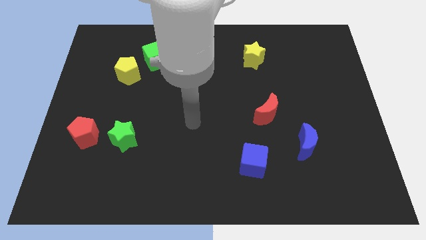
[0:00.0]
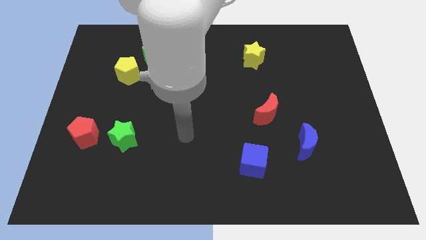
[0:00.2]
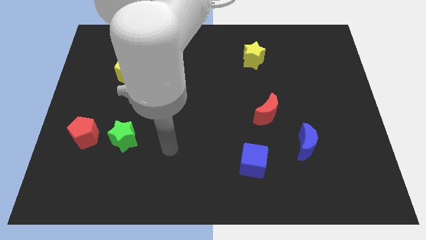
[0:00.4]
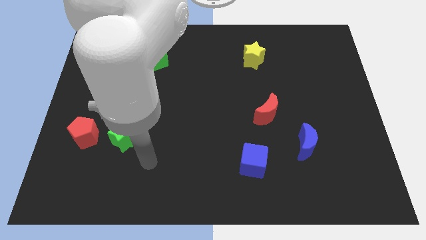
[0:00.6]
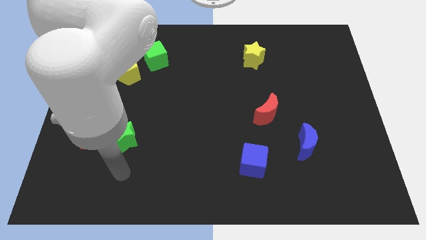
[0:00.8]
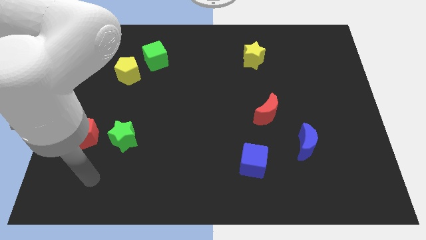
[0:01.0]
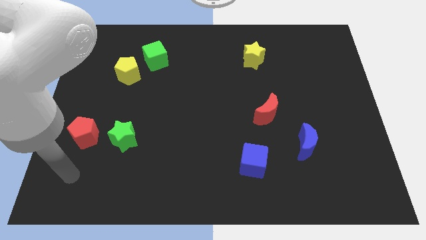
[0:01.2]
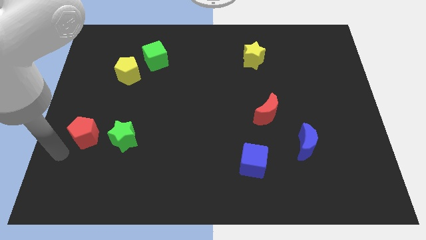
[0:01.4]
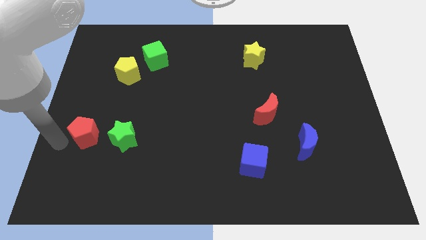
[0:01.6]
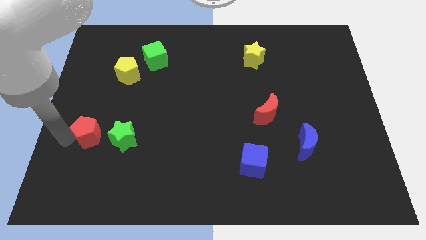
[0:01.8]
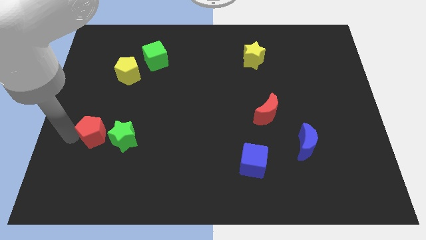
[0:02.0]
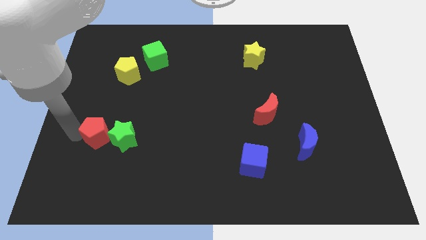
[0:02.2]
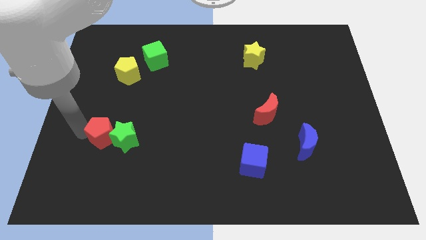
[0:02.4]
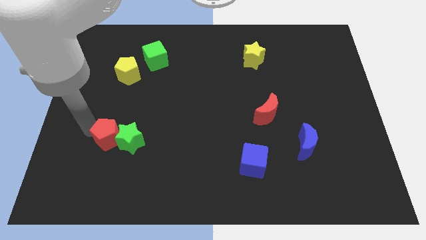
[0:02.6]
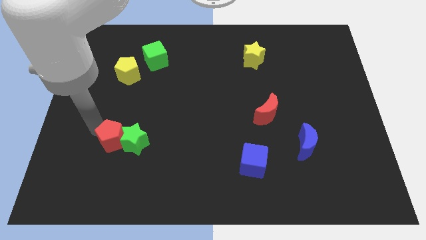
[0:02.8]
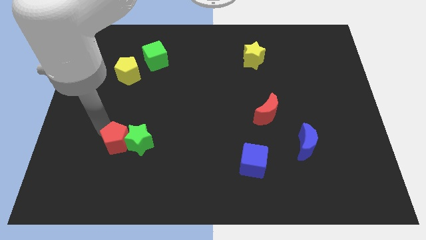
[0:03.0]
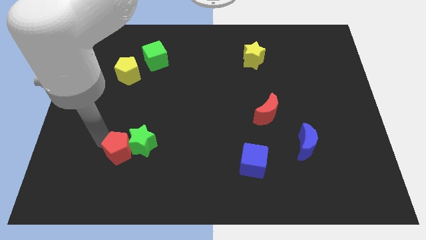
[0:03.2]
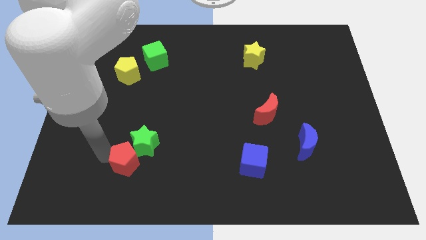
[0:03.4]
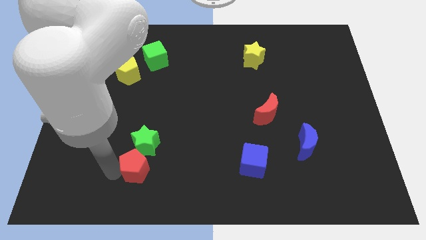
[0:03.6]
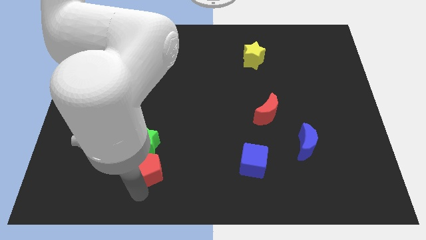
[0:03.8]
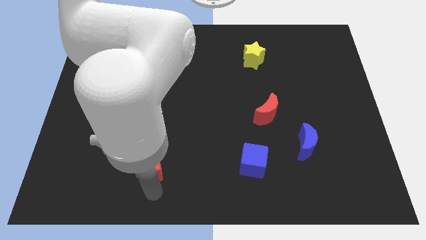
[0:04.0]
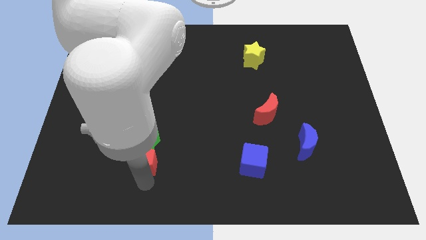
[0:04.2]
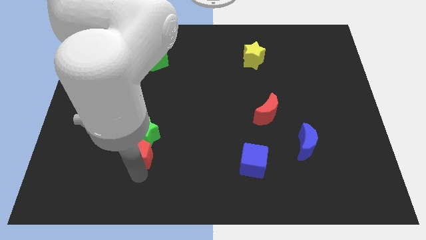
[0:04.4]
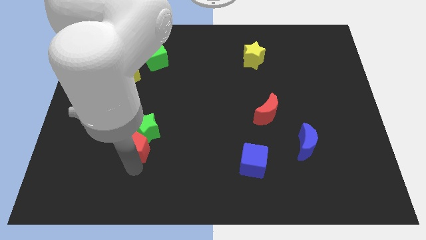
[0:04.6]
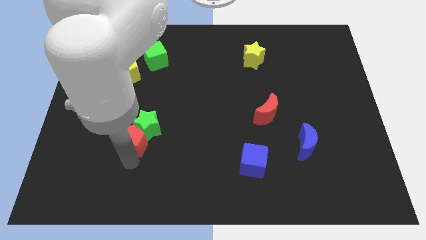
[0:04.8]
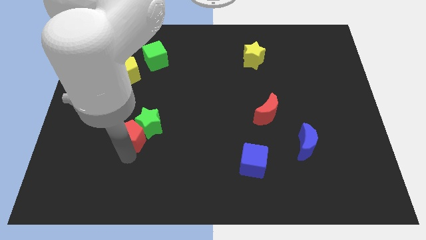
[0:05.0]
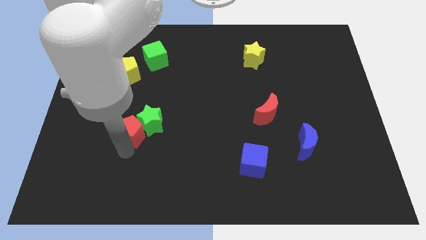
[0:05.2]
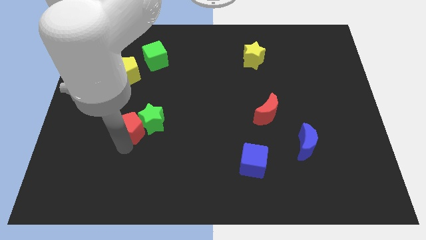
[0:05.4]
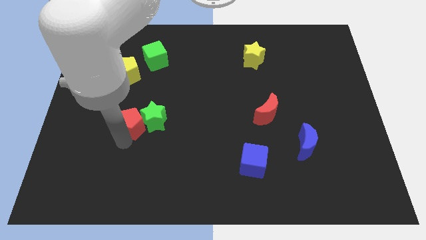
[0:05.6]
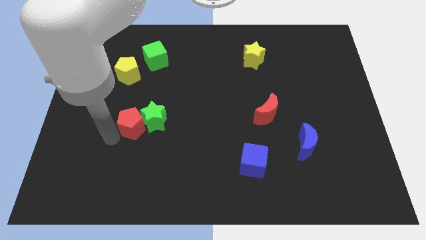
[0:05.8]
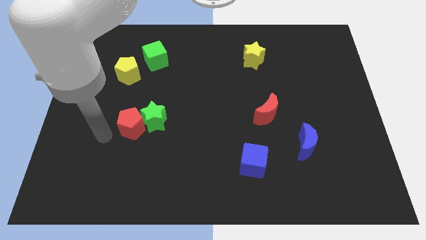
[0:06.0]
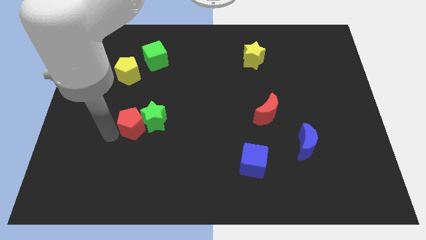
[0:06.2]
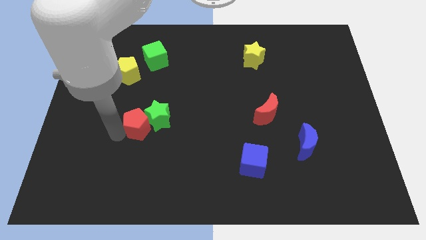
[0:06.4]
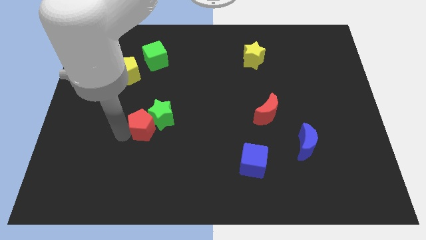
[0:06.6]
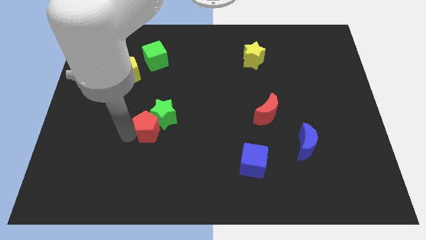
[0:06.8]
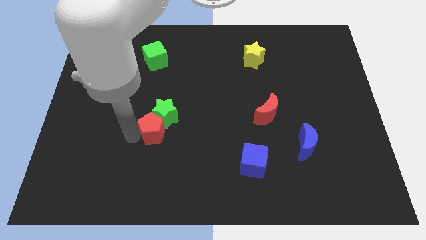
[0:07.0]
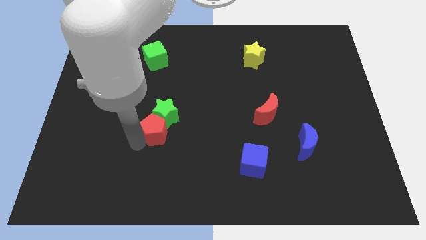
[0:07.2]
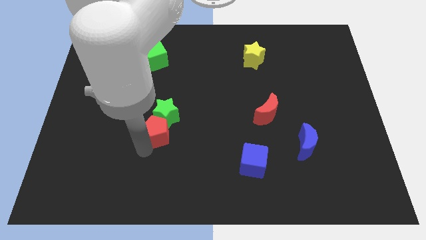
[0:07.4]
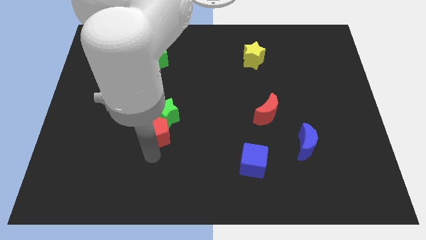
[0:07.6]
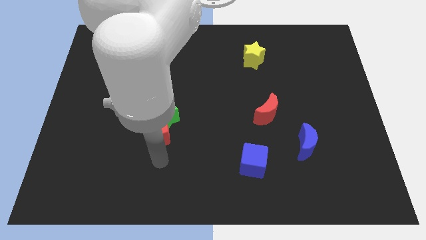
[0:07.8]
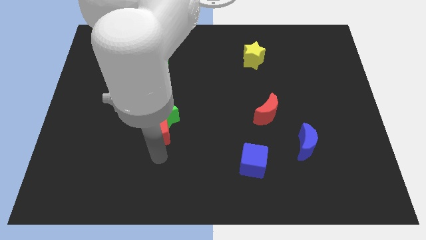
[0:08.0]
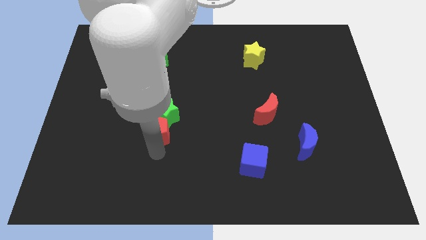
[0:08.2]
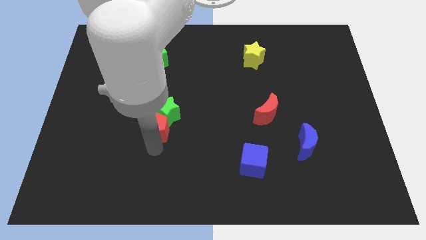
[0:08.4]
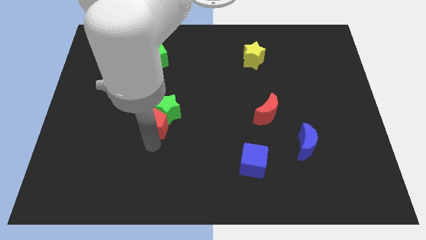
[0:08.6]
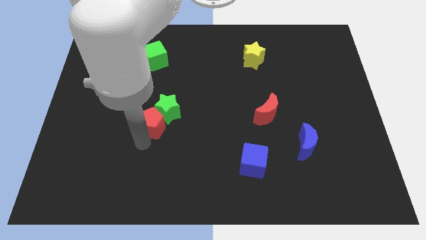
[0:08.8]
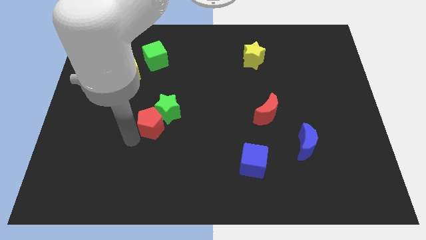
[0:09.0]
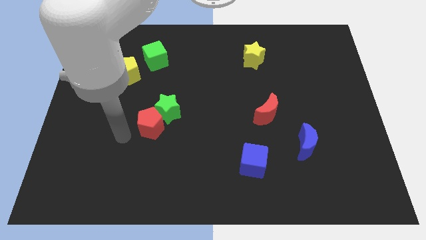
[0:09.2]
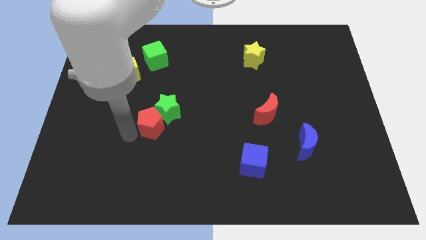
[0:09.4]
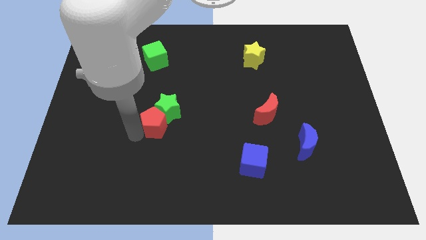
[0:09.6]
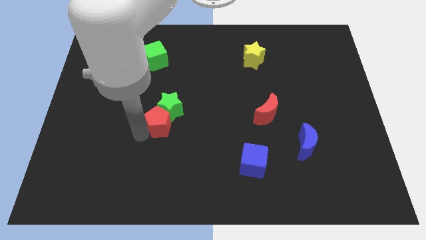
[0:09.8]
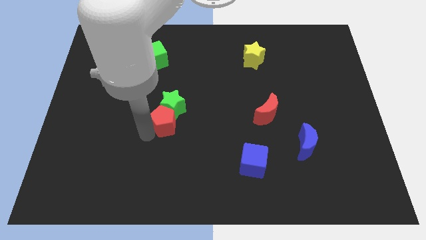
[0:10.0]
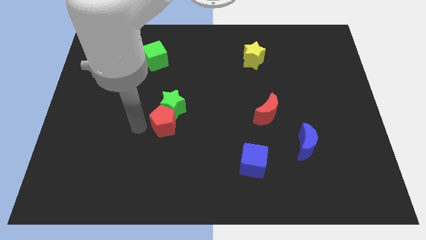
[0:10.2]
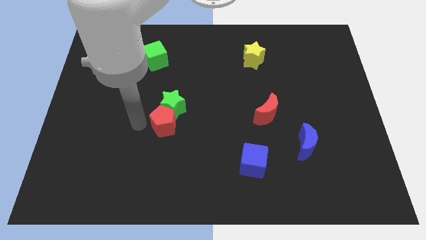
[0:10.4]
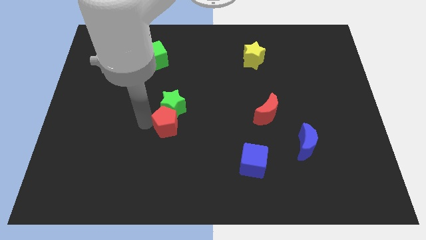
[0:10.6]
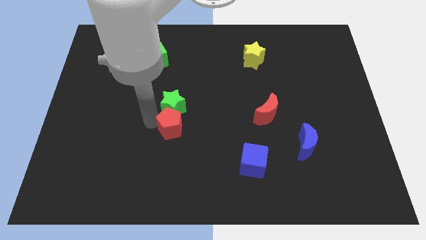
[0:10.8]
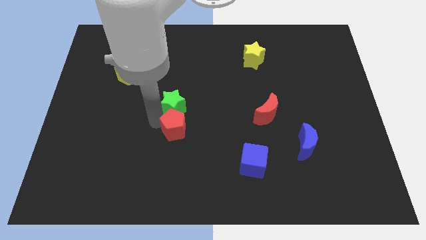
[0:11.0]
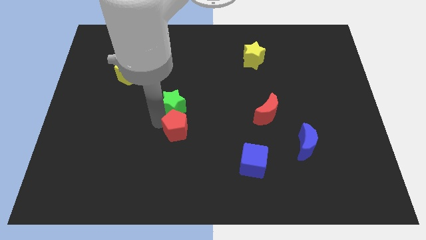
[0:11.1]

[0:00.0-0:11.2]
slide the red pentagon right

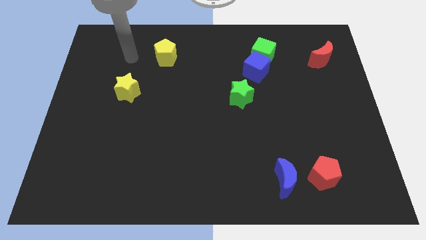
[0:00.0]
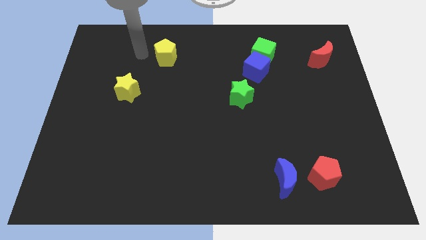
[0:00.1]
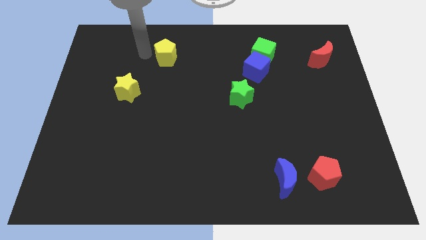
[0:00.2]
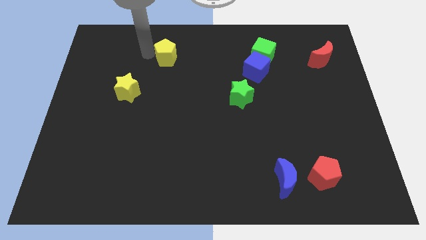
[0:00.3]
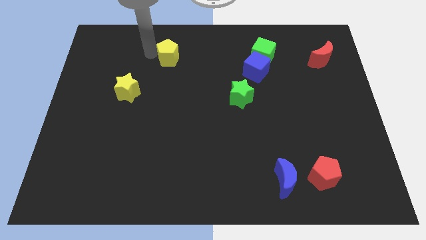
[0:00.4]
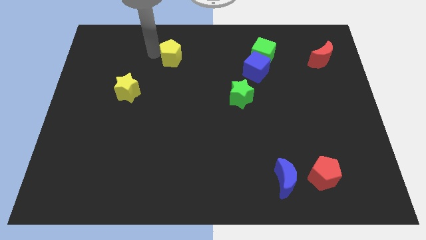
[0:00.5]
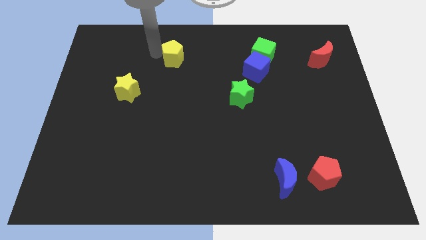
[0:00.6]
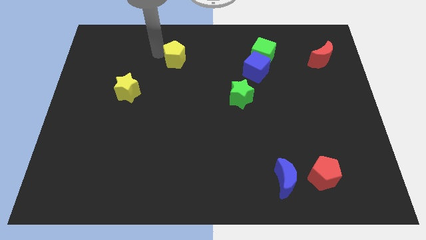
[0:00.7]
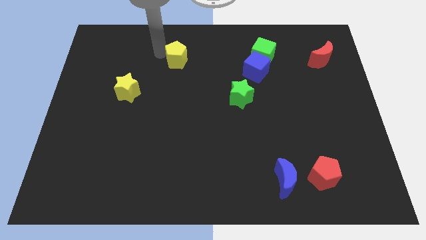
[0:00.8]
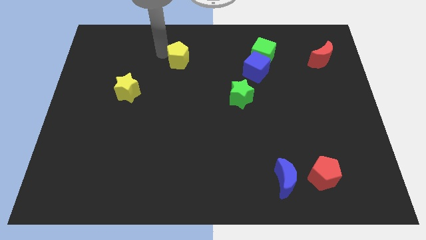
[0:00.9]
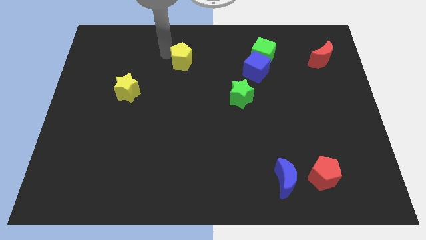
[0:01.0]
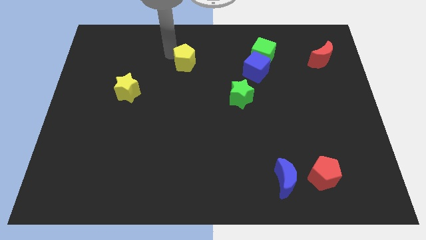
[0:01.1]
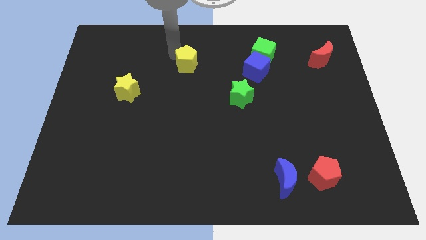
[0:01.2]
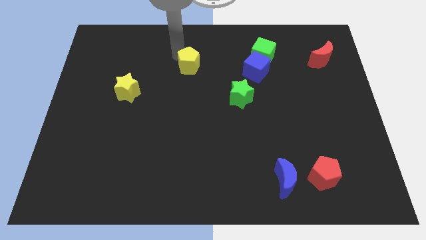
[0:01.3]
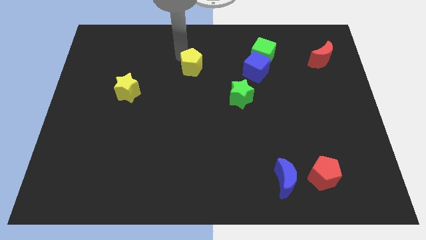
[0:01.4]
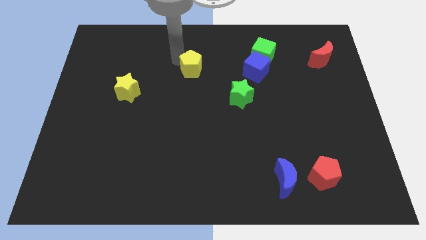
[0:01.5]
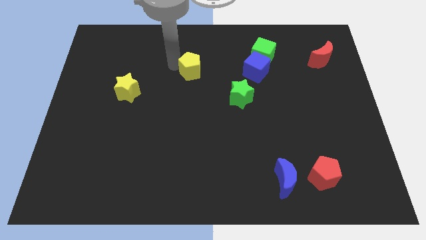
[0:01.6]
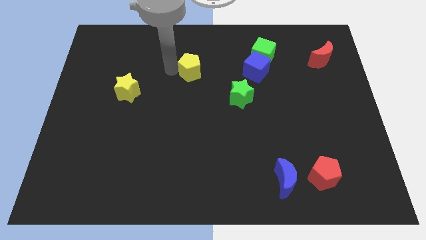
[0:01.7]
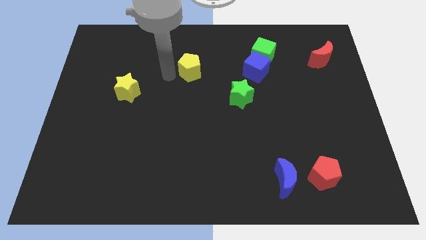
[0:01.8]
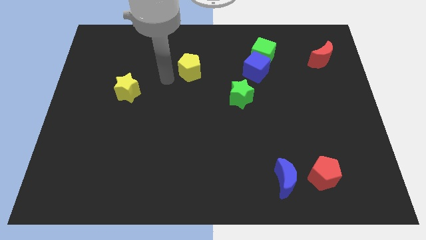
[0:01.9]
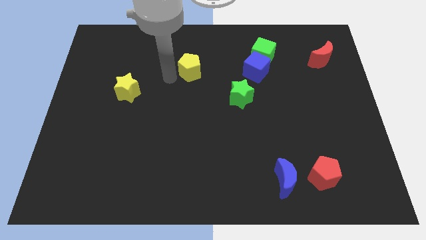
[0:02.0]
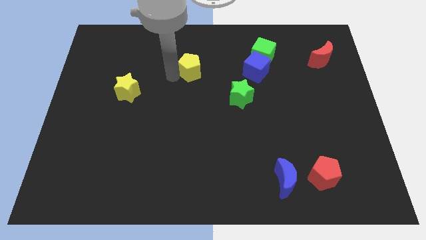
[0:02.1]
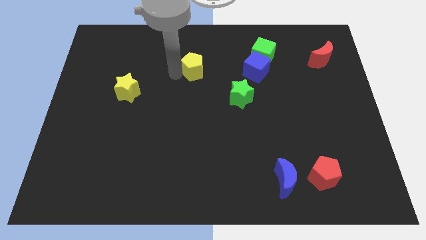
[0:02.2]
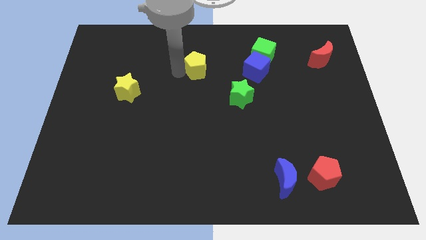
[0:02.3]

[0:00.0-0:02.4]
push the yellow pentagon to the right slightly
